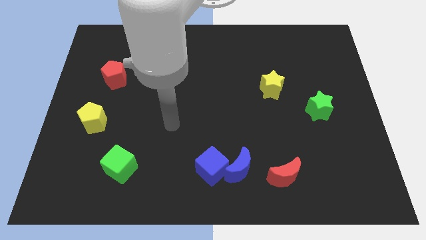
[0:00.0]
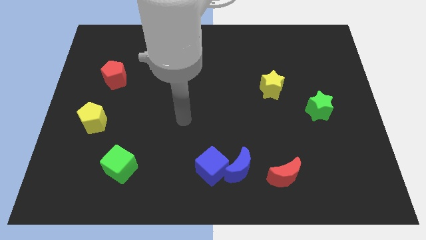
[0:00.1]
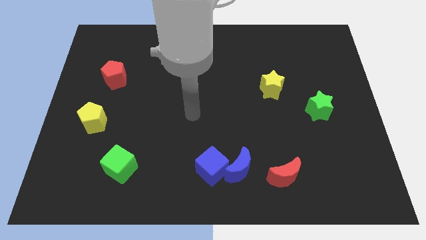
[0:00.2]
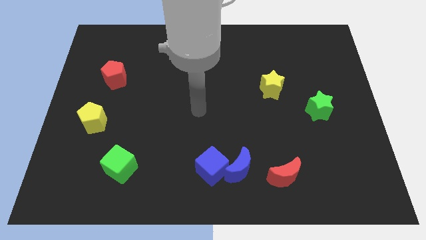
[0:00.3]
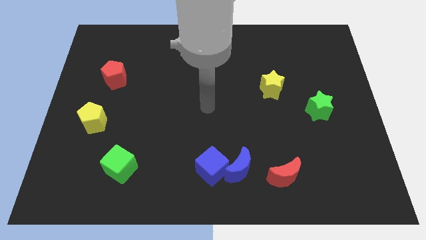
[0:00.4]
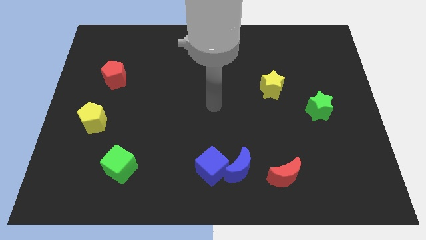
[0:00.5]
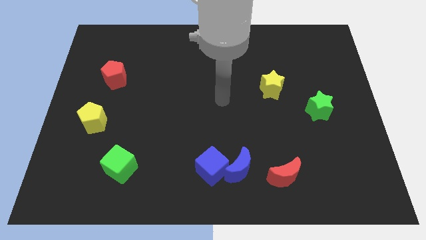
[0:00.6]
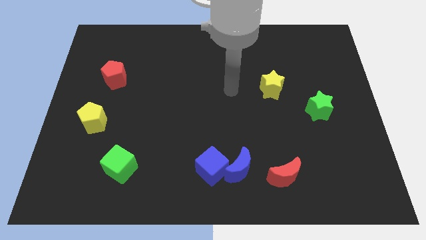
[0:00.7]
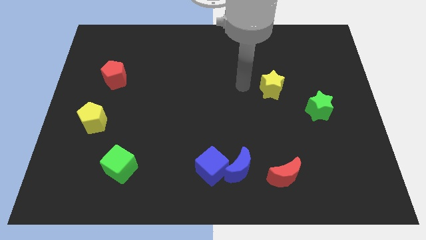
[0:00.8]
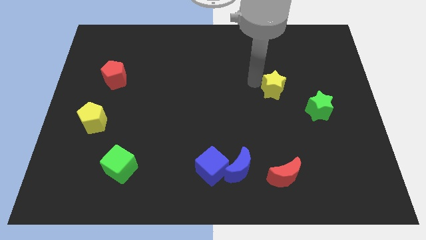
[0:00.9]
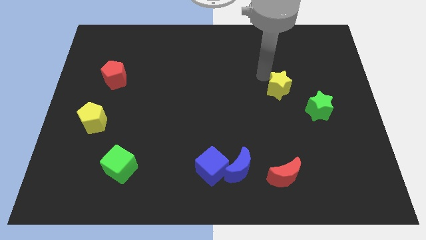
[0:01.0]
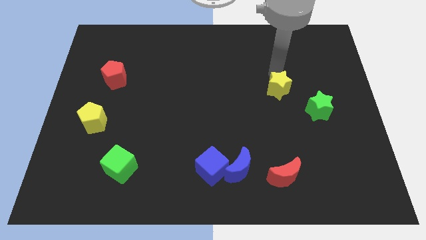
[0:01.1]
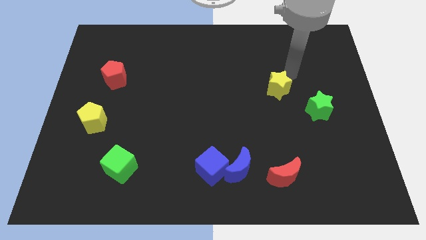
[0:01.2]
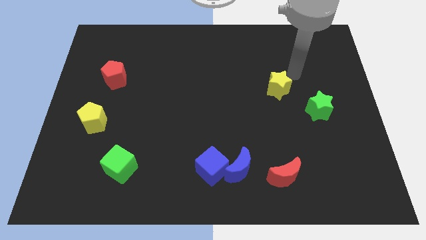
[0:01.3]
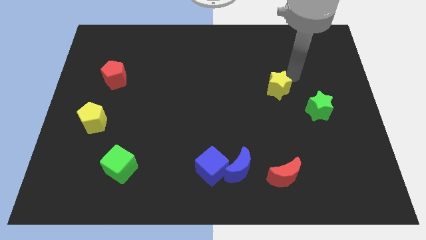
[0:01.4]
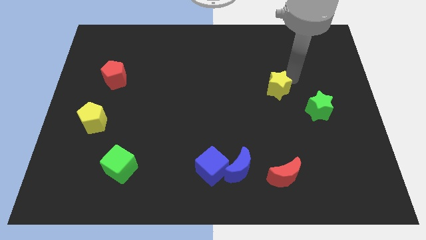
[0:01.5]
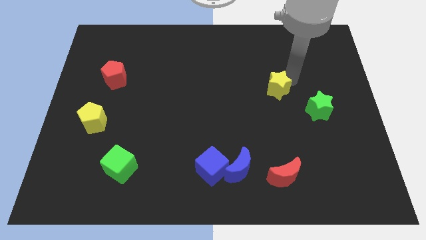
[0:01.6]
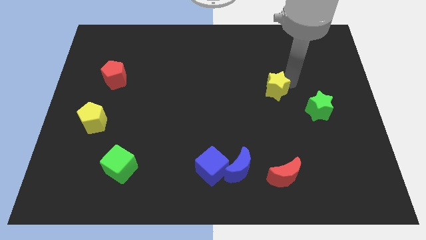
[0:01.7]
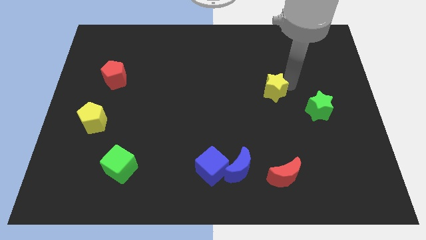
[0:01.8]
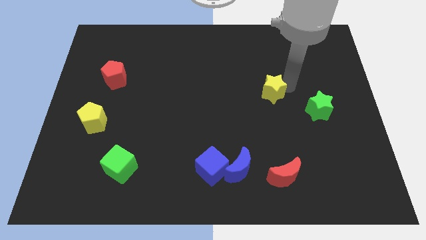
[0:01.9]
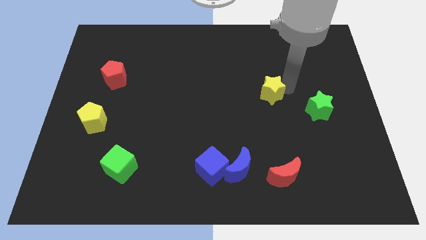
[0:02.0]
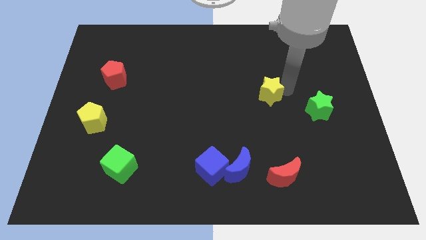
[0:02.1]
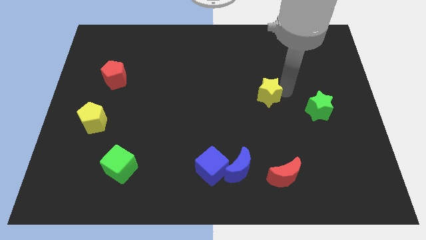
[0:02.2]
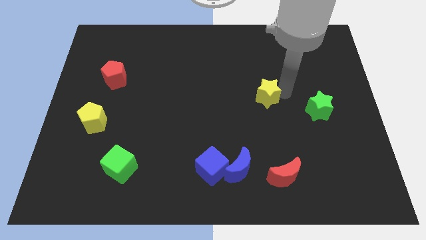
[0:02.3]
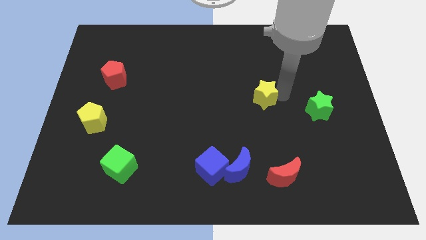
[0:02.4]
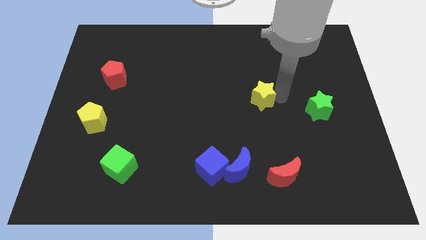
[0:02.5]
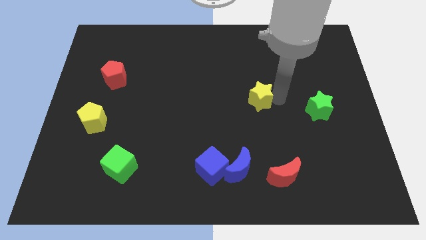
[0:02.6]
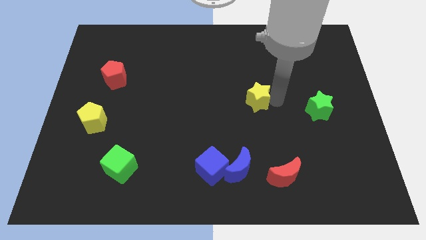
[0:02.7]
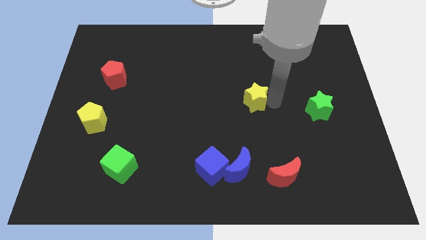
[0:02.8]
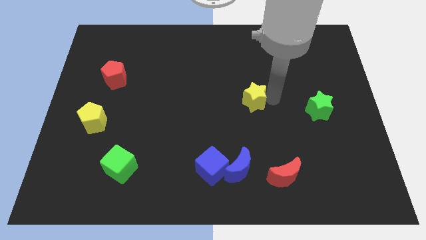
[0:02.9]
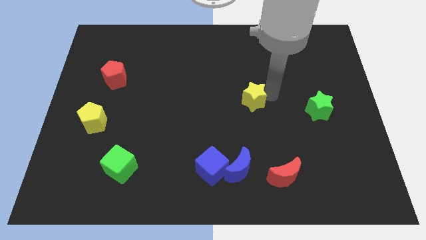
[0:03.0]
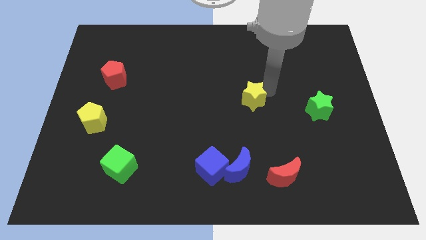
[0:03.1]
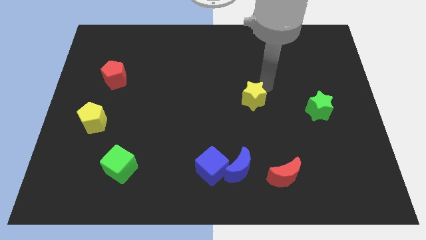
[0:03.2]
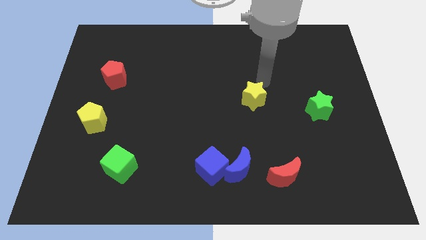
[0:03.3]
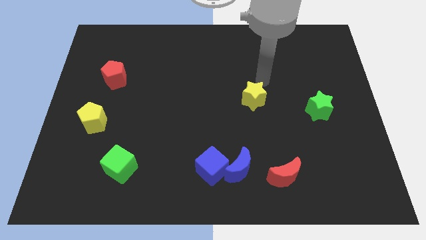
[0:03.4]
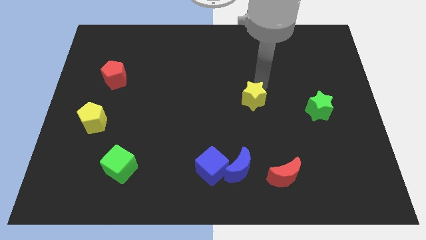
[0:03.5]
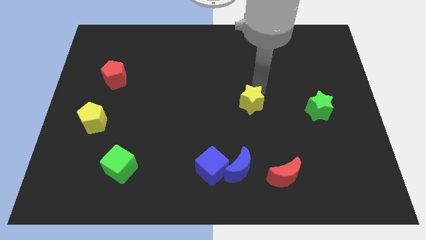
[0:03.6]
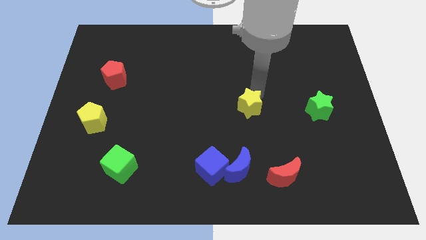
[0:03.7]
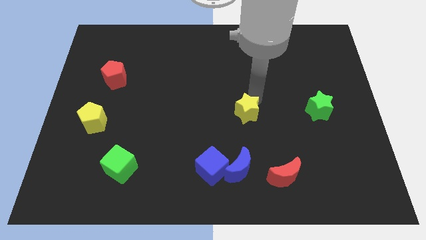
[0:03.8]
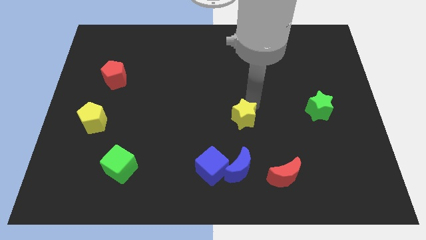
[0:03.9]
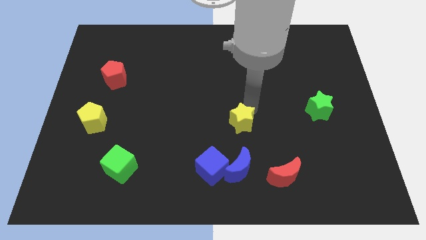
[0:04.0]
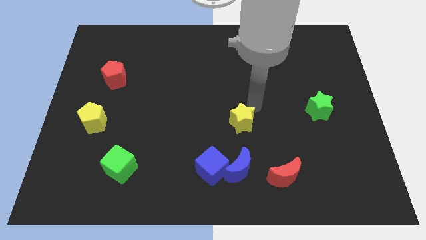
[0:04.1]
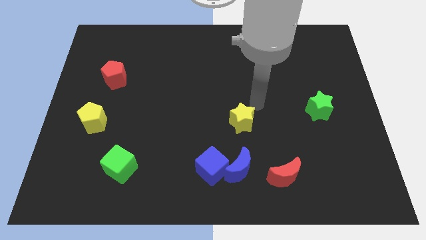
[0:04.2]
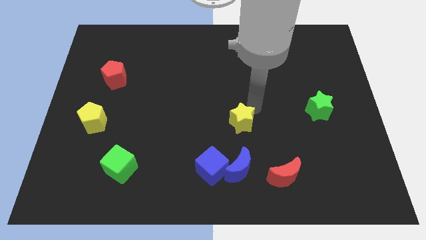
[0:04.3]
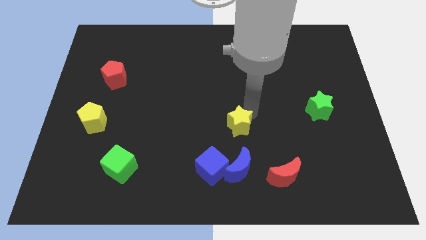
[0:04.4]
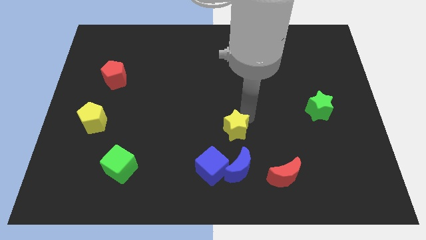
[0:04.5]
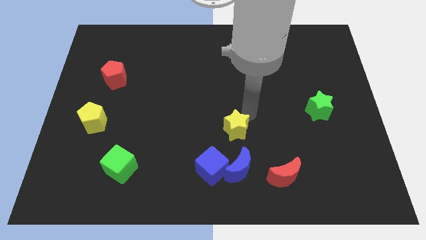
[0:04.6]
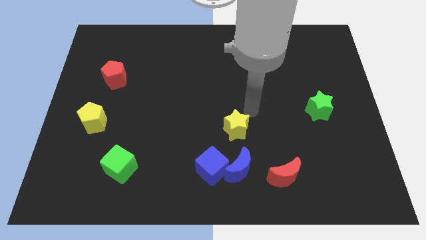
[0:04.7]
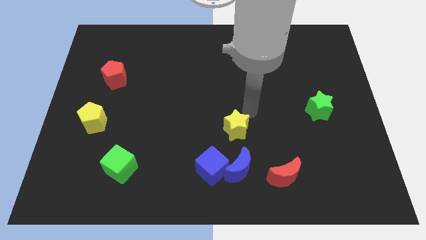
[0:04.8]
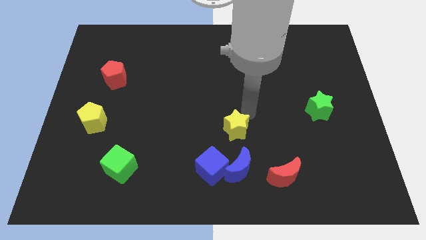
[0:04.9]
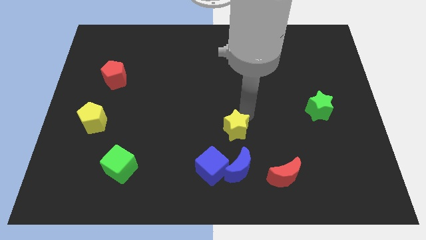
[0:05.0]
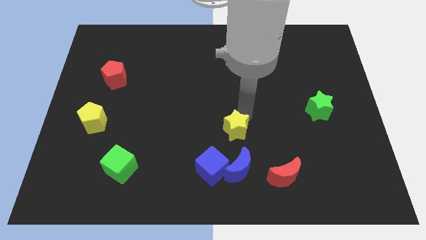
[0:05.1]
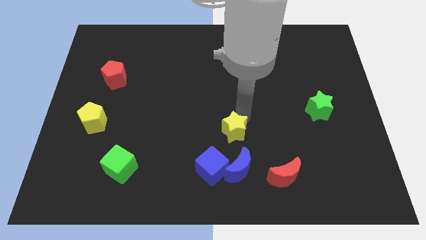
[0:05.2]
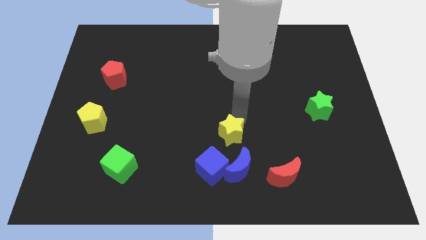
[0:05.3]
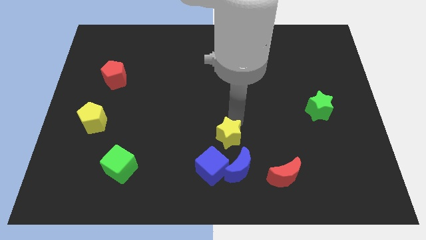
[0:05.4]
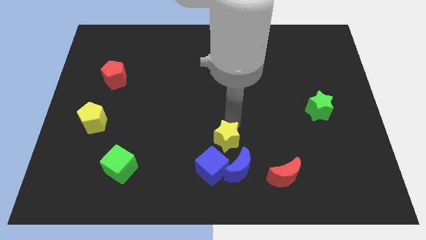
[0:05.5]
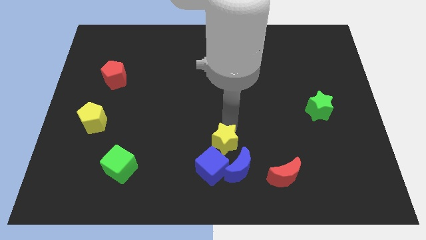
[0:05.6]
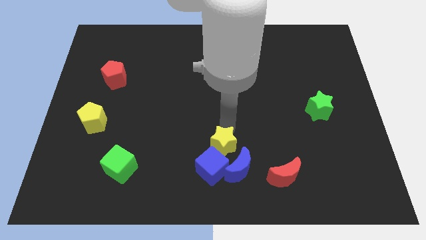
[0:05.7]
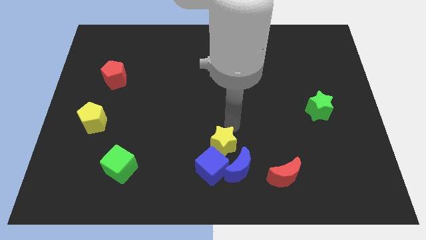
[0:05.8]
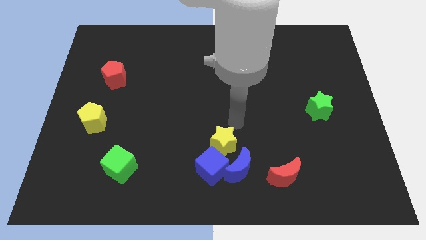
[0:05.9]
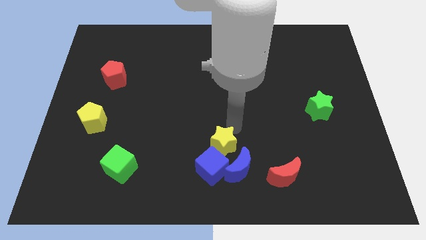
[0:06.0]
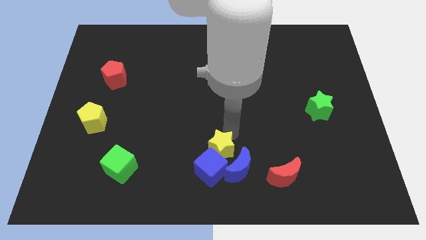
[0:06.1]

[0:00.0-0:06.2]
put the yellow star towards the blue cube

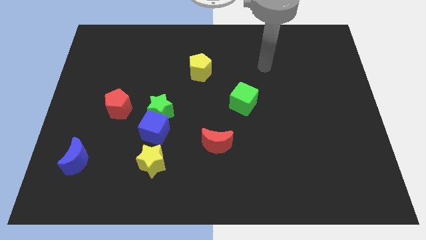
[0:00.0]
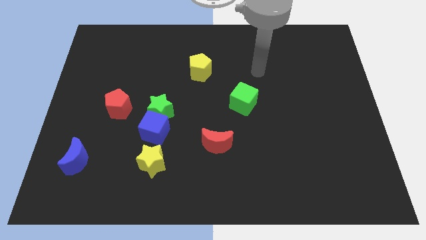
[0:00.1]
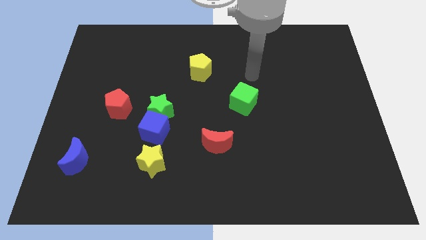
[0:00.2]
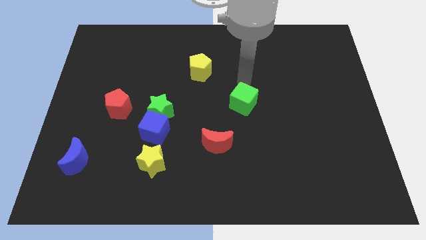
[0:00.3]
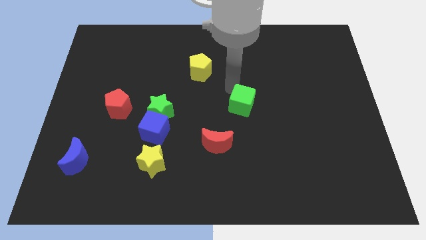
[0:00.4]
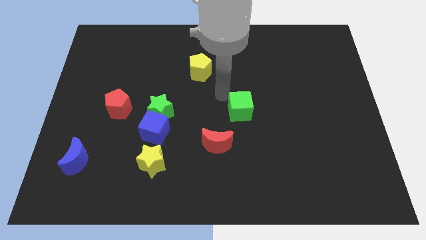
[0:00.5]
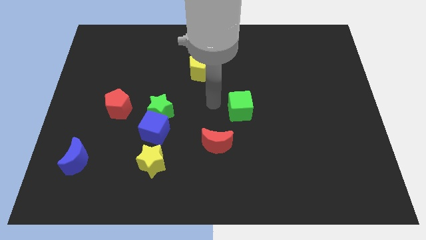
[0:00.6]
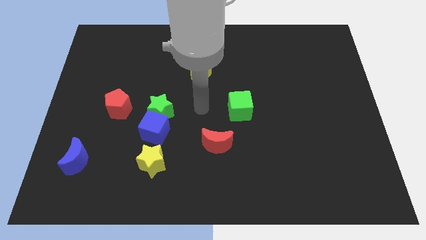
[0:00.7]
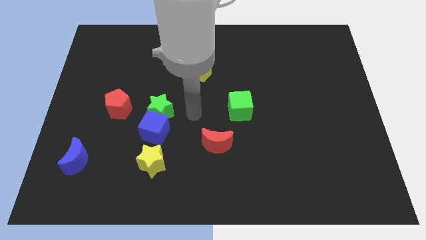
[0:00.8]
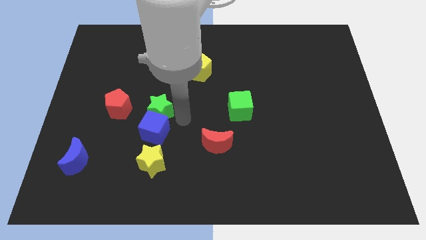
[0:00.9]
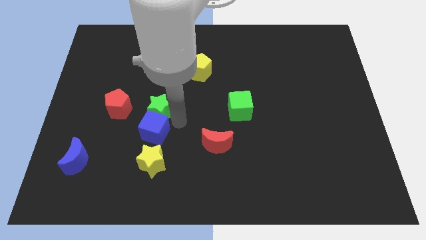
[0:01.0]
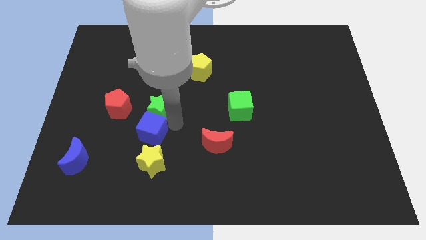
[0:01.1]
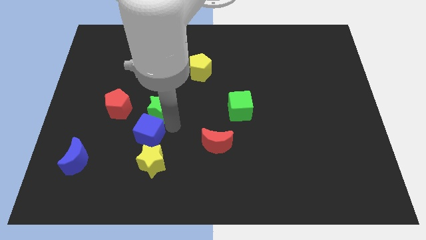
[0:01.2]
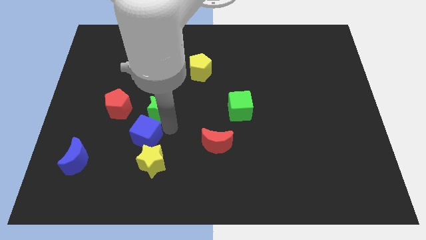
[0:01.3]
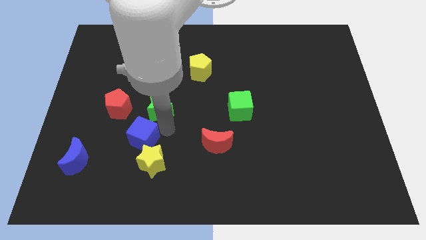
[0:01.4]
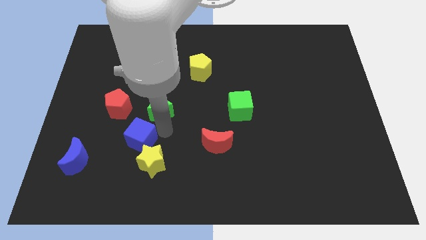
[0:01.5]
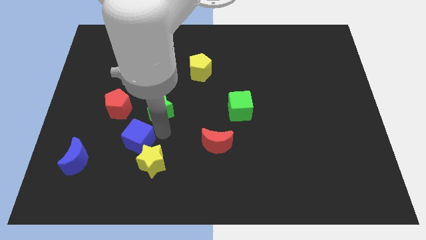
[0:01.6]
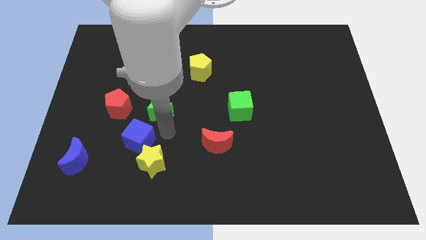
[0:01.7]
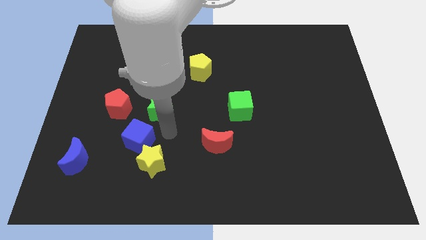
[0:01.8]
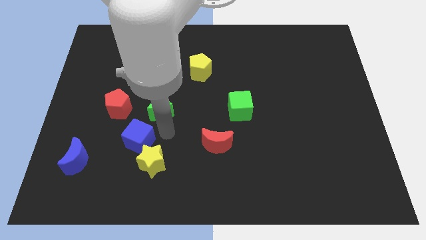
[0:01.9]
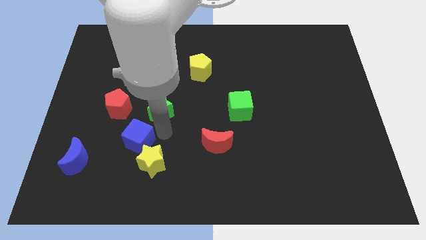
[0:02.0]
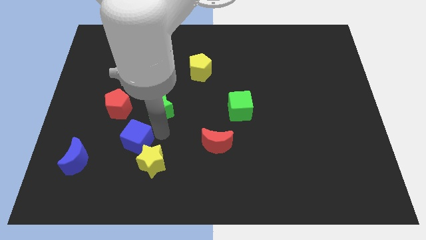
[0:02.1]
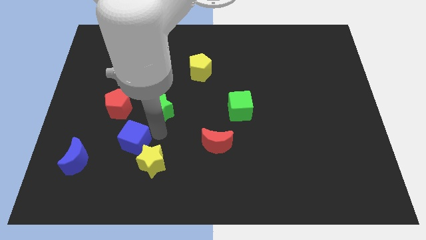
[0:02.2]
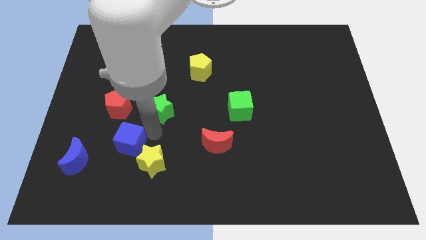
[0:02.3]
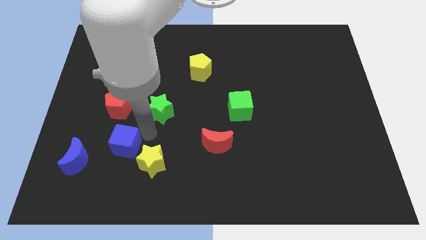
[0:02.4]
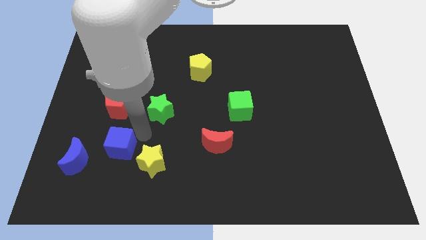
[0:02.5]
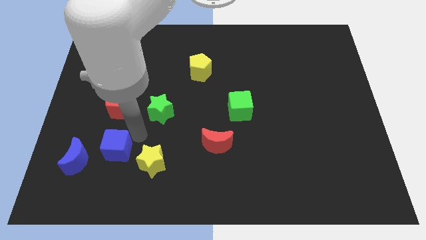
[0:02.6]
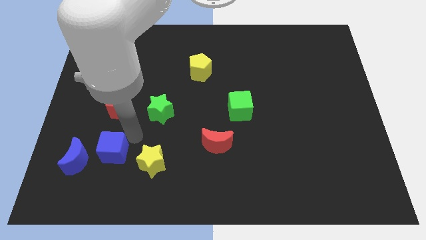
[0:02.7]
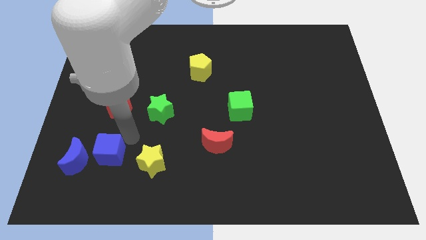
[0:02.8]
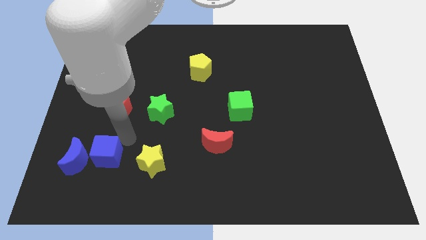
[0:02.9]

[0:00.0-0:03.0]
put the blue cube towards the blue moon
